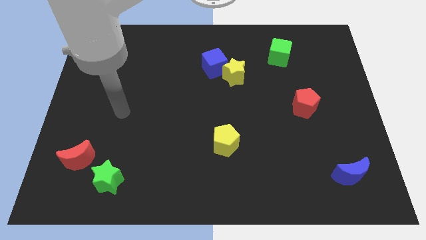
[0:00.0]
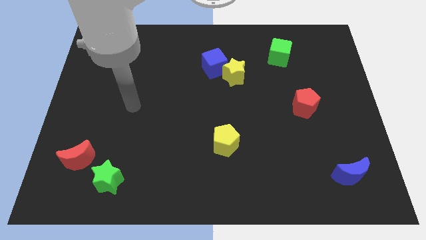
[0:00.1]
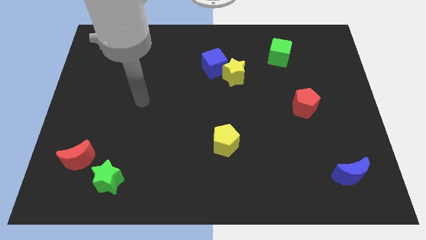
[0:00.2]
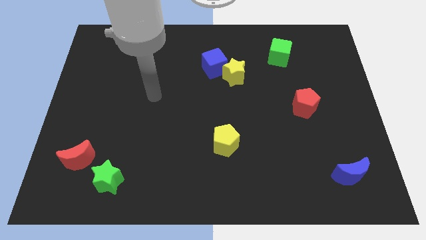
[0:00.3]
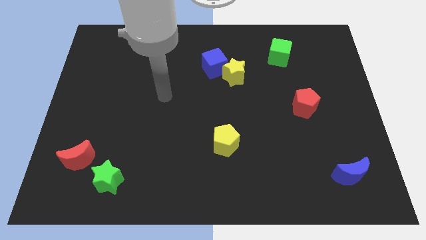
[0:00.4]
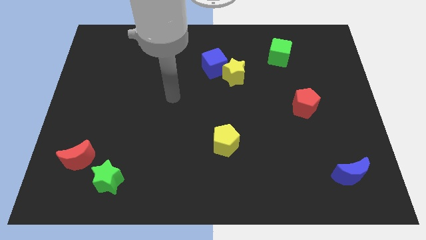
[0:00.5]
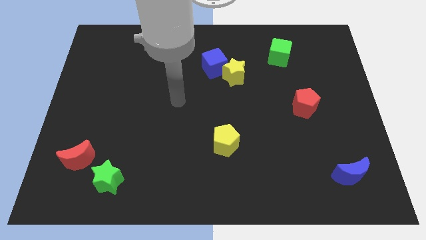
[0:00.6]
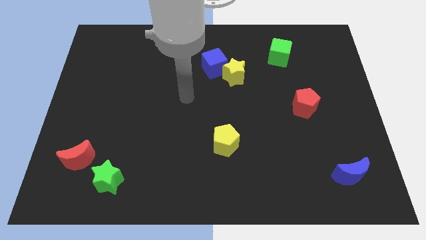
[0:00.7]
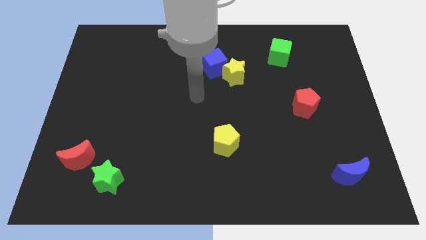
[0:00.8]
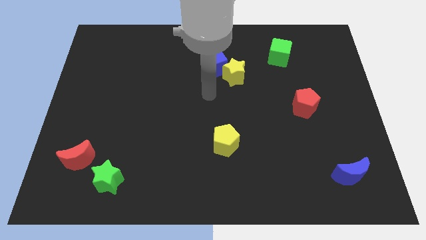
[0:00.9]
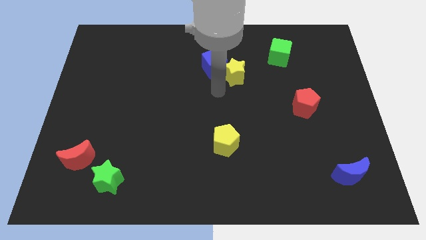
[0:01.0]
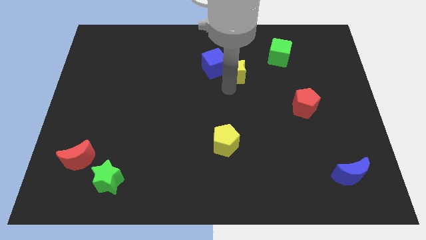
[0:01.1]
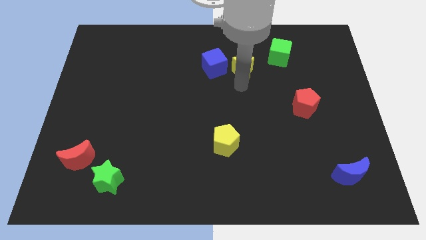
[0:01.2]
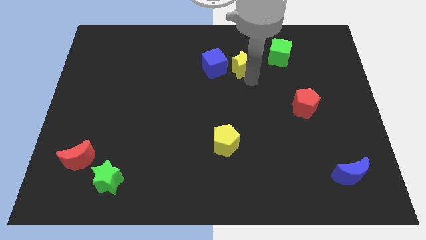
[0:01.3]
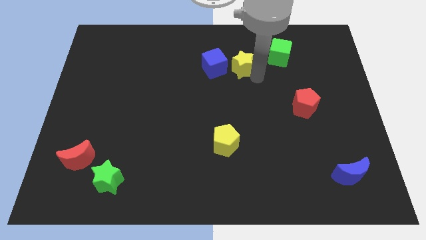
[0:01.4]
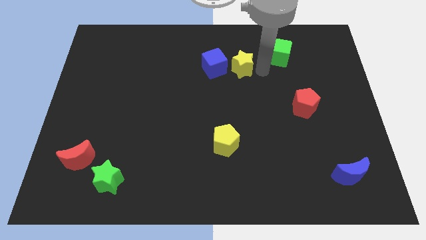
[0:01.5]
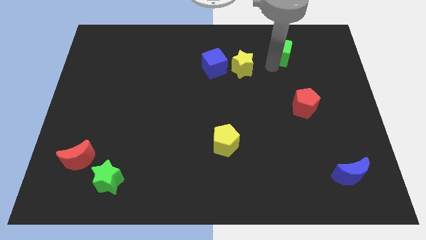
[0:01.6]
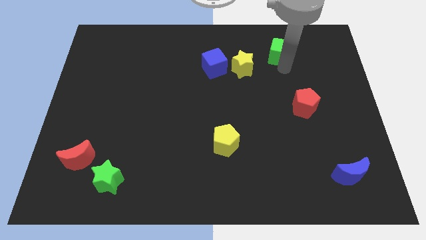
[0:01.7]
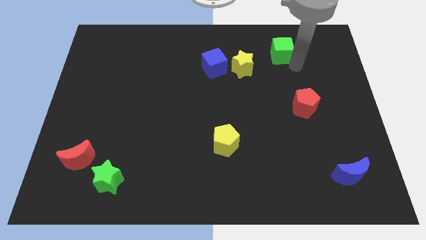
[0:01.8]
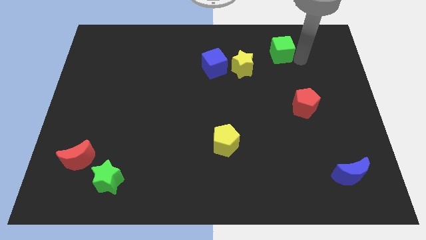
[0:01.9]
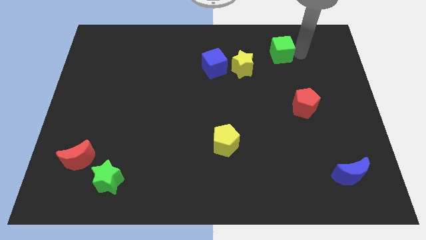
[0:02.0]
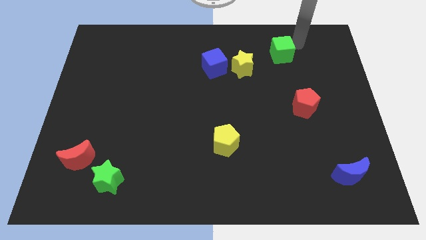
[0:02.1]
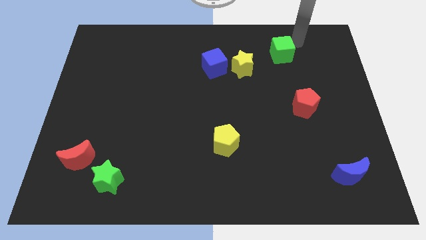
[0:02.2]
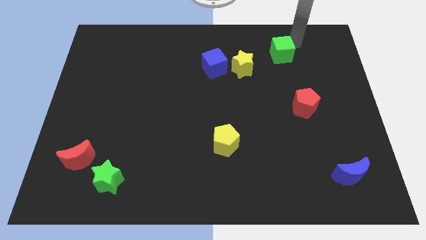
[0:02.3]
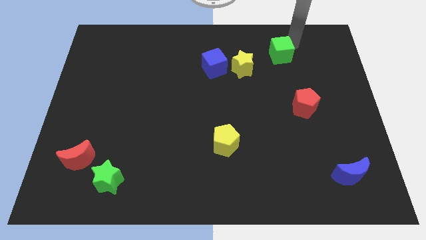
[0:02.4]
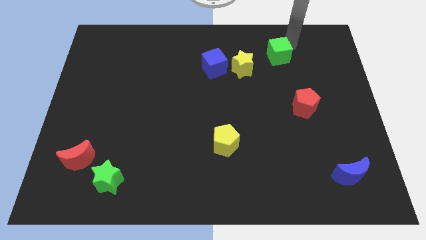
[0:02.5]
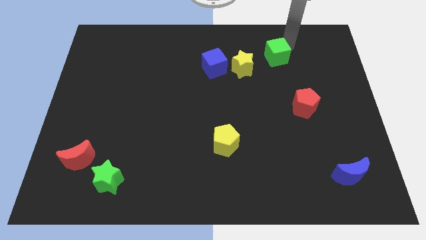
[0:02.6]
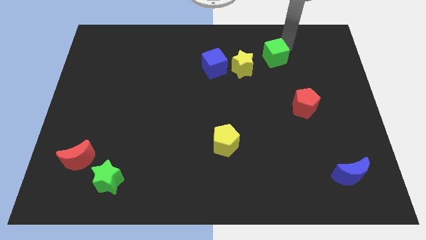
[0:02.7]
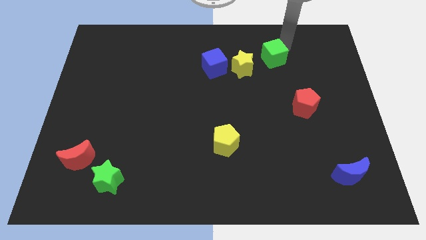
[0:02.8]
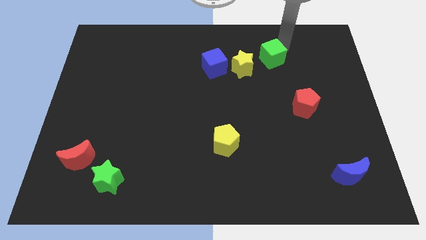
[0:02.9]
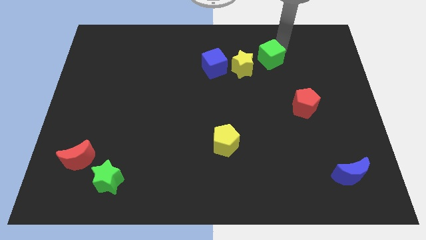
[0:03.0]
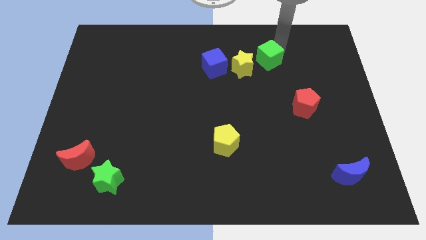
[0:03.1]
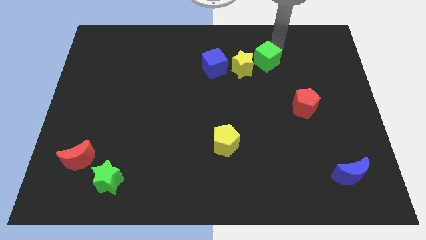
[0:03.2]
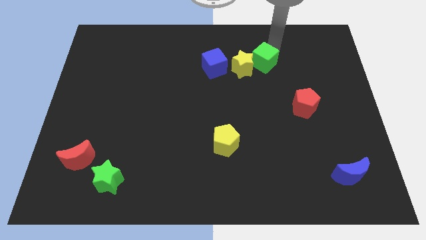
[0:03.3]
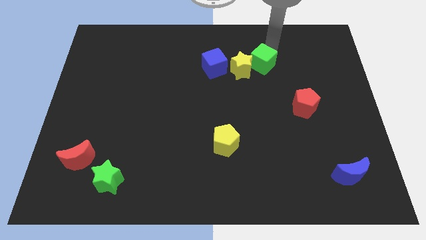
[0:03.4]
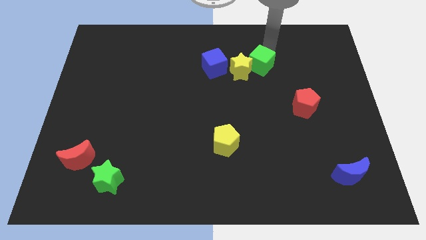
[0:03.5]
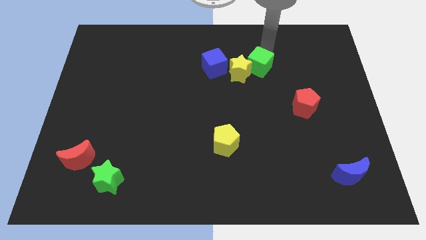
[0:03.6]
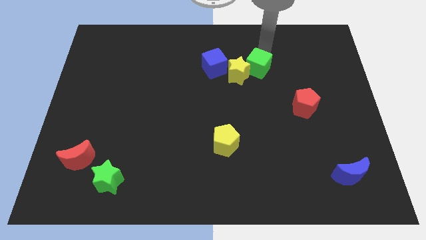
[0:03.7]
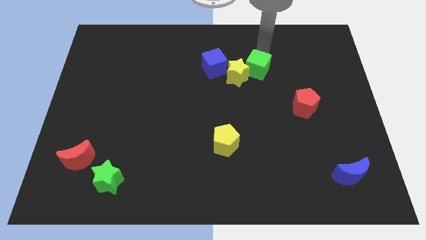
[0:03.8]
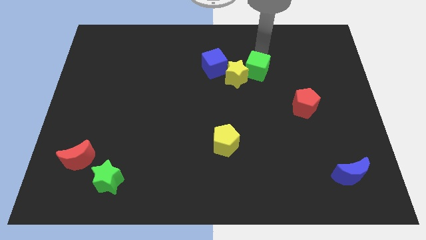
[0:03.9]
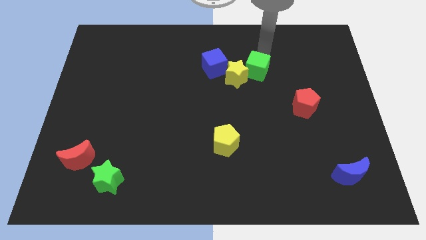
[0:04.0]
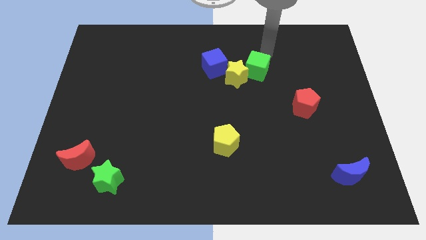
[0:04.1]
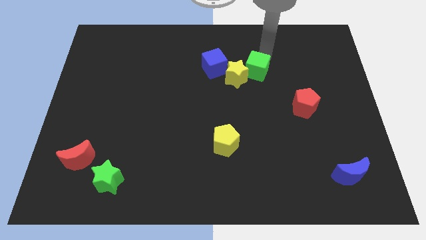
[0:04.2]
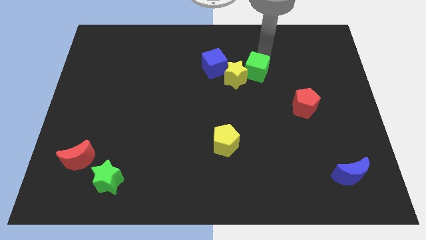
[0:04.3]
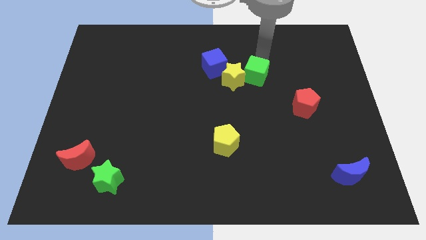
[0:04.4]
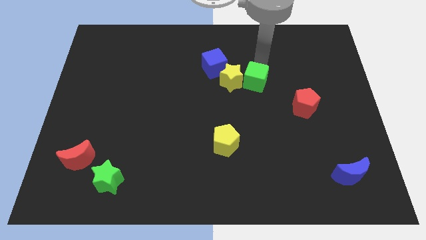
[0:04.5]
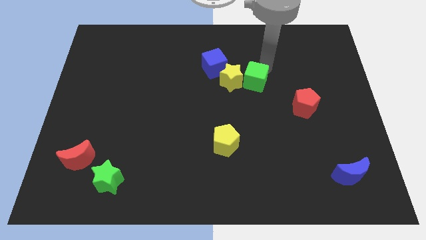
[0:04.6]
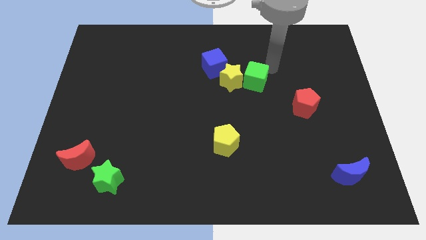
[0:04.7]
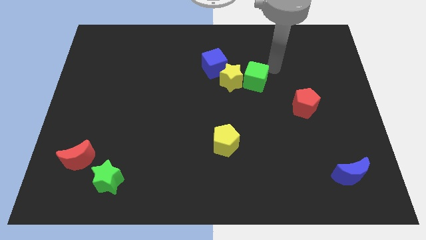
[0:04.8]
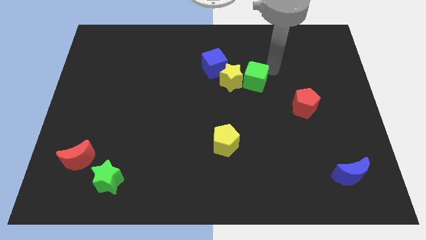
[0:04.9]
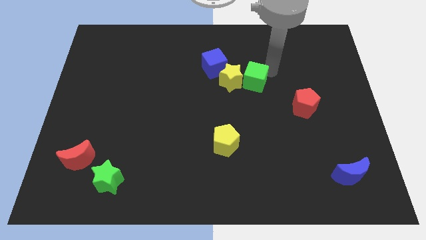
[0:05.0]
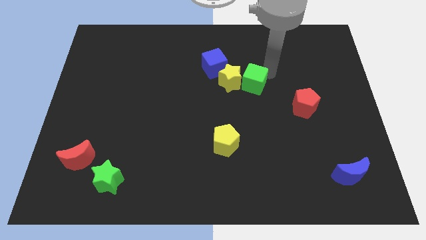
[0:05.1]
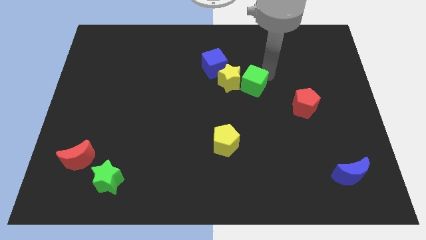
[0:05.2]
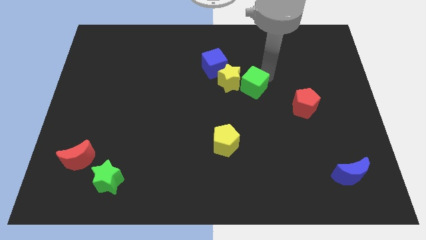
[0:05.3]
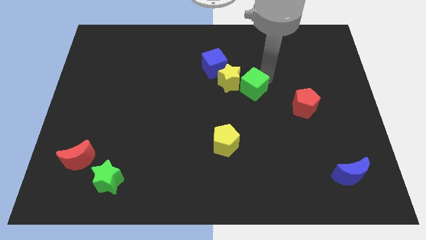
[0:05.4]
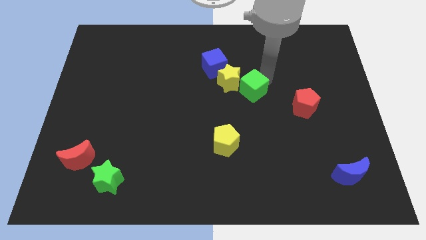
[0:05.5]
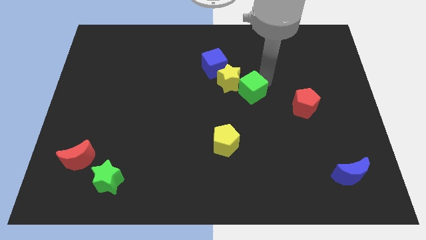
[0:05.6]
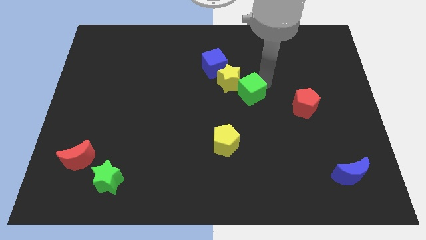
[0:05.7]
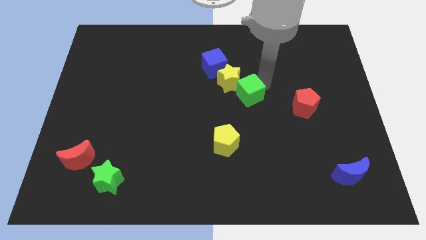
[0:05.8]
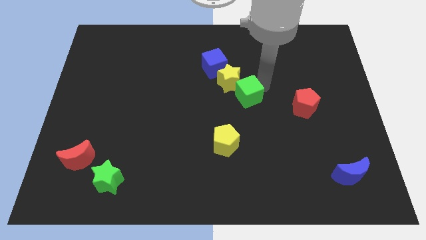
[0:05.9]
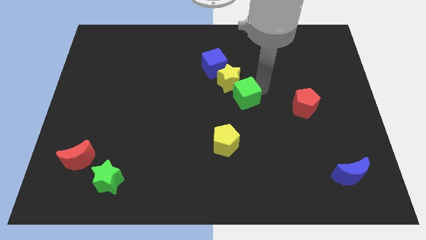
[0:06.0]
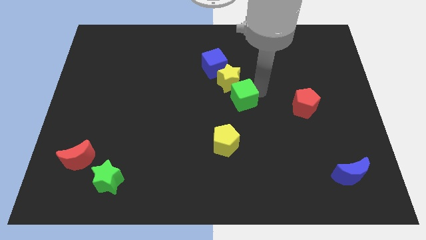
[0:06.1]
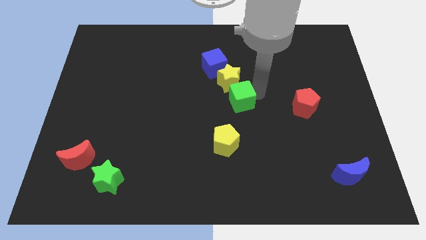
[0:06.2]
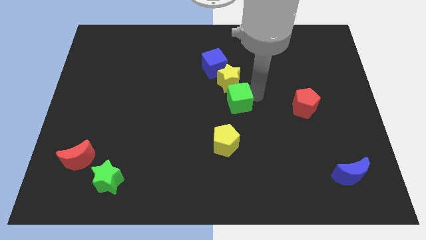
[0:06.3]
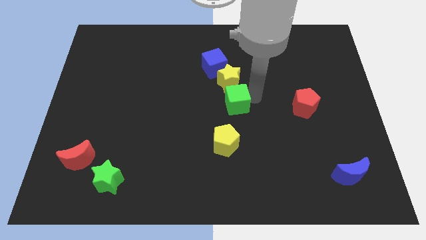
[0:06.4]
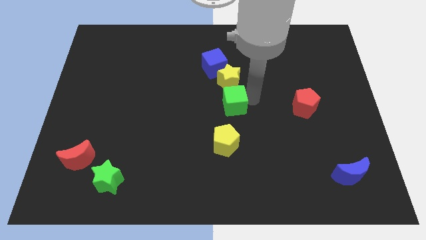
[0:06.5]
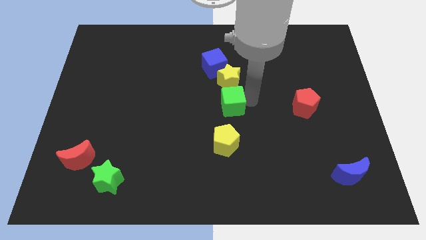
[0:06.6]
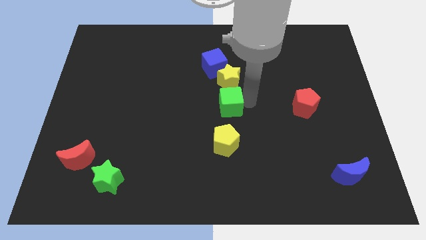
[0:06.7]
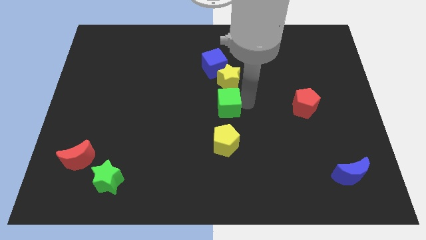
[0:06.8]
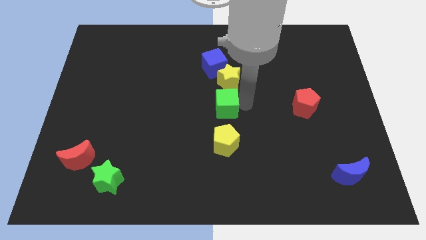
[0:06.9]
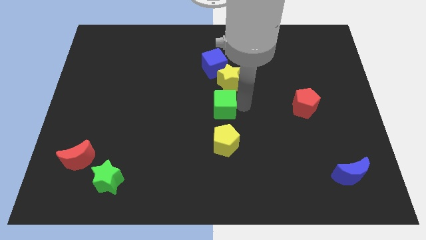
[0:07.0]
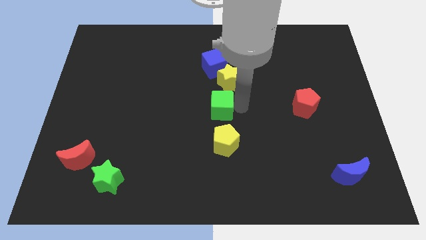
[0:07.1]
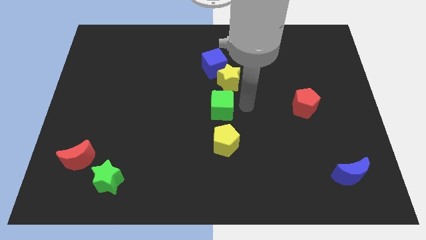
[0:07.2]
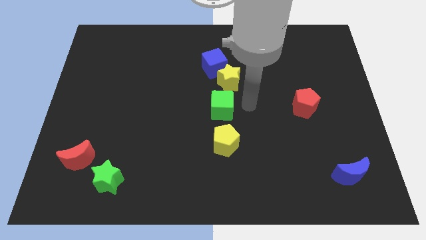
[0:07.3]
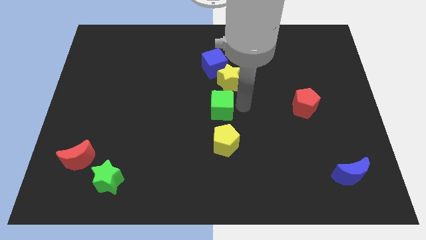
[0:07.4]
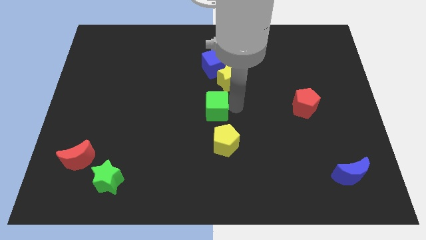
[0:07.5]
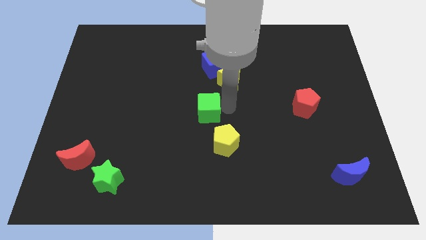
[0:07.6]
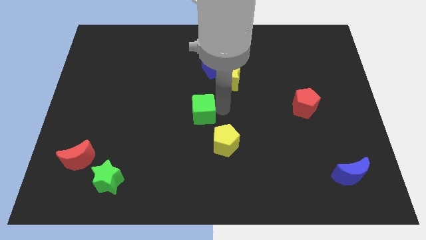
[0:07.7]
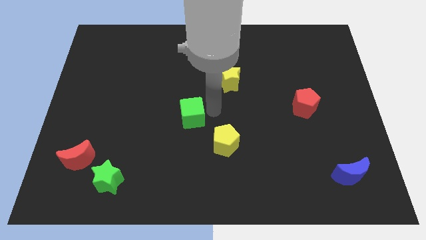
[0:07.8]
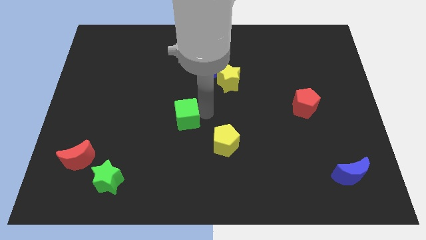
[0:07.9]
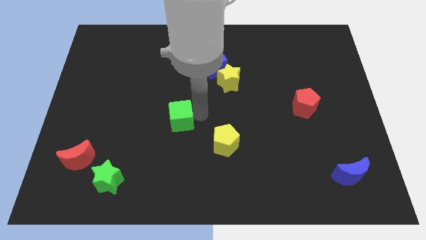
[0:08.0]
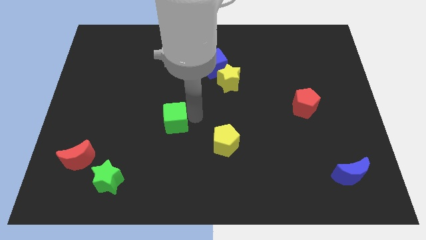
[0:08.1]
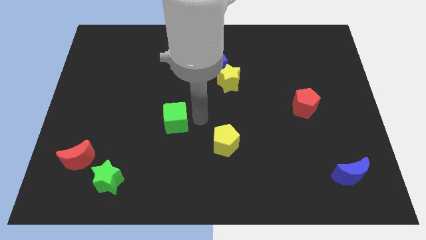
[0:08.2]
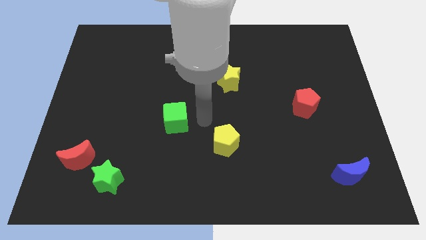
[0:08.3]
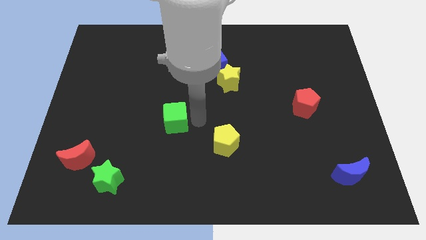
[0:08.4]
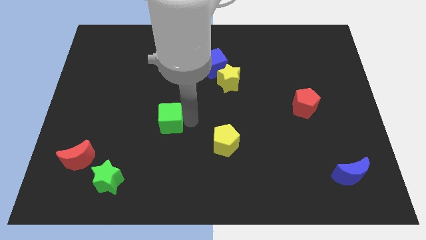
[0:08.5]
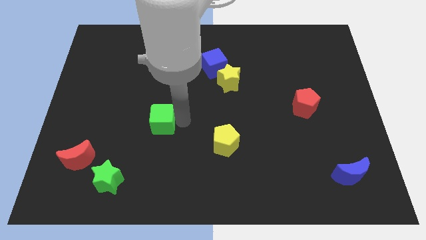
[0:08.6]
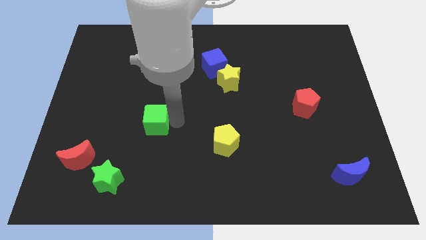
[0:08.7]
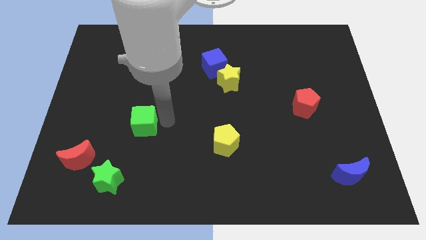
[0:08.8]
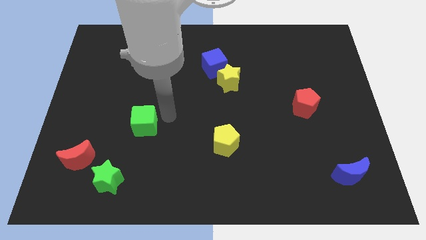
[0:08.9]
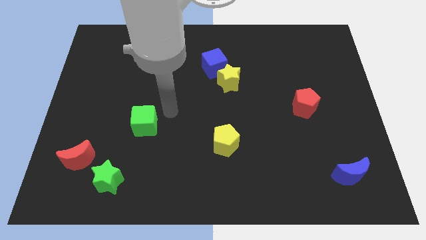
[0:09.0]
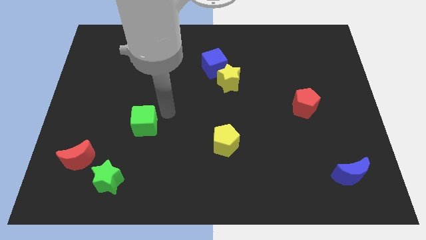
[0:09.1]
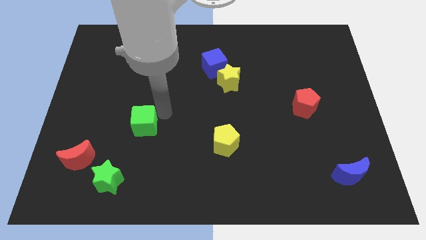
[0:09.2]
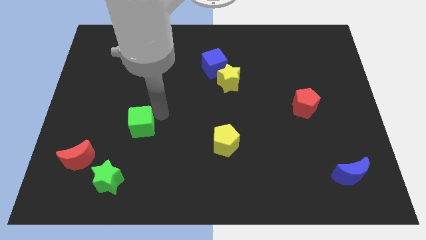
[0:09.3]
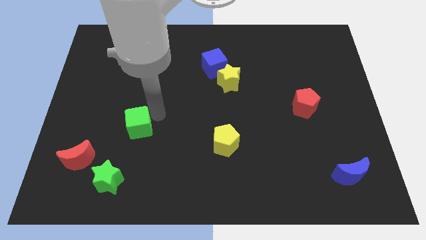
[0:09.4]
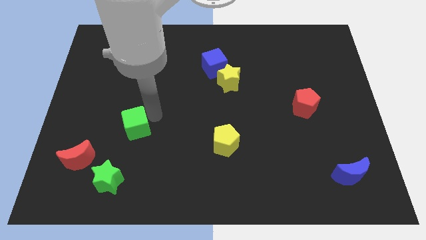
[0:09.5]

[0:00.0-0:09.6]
move the green cube above the green star
